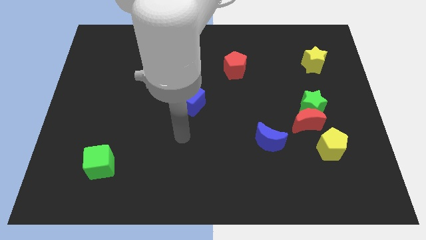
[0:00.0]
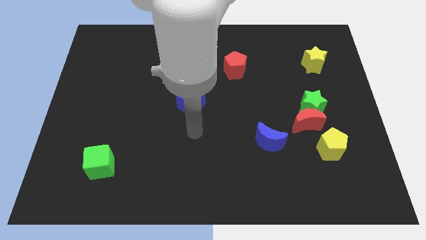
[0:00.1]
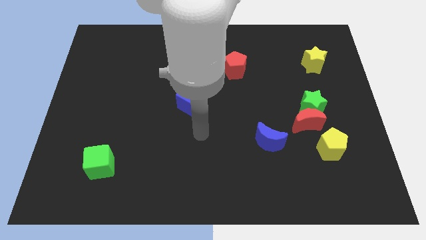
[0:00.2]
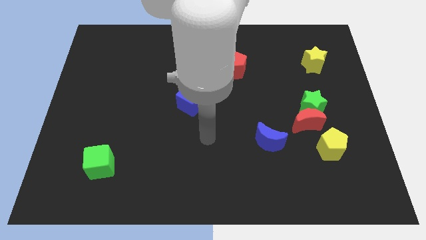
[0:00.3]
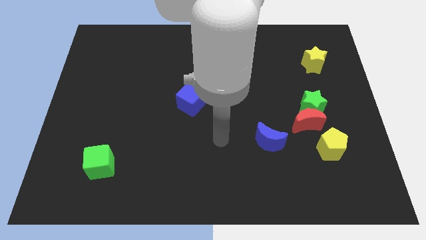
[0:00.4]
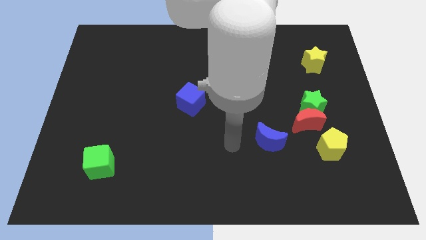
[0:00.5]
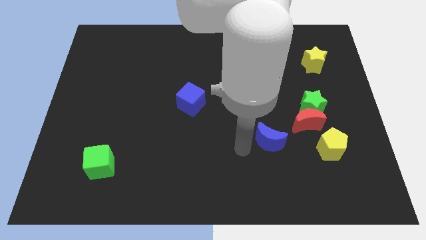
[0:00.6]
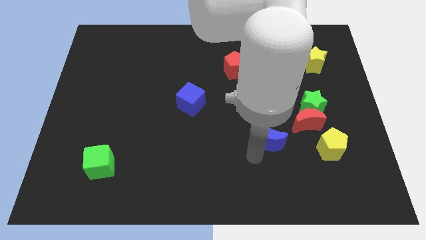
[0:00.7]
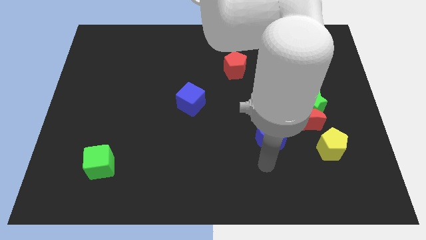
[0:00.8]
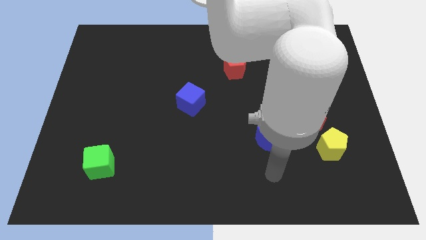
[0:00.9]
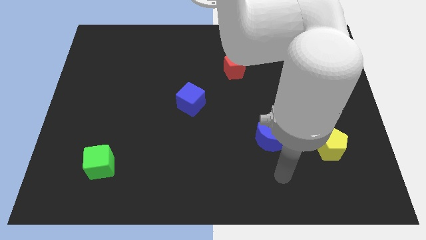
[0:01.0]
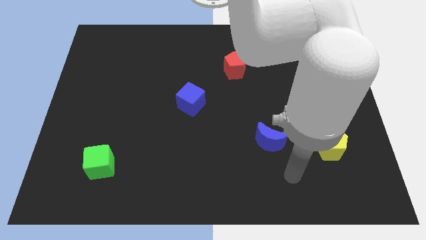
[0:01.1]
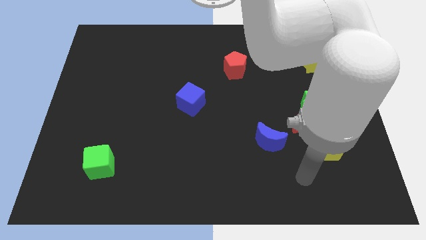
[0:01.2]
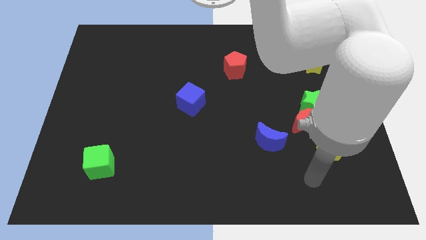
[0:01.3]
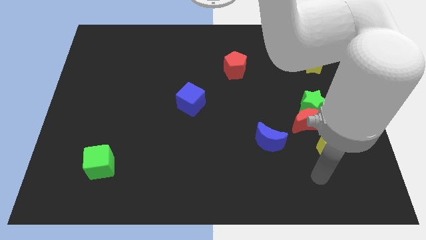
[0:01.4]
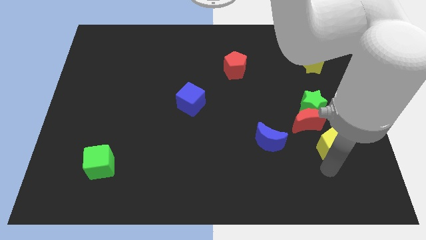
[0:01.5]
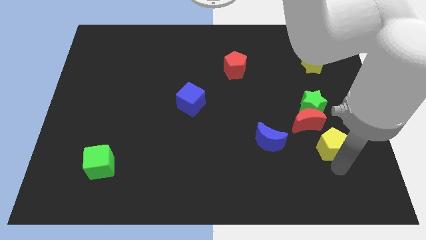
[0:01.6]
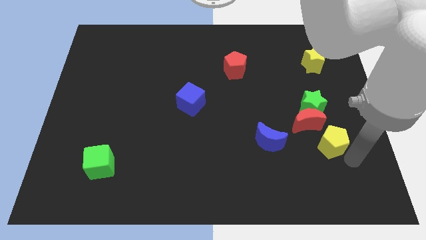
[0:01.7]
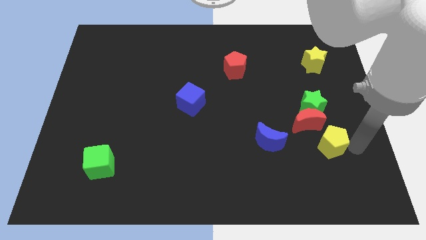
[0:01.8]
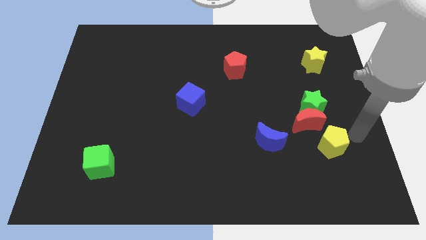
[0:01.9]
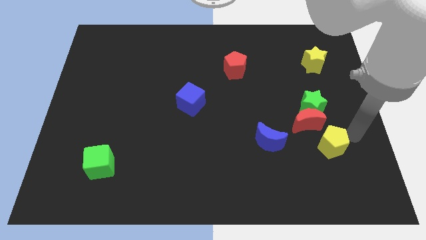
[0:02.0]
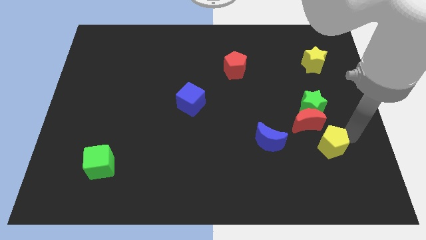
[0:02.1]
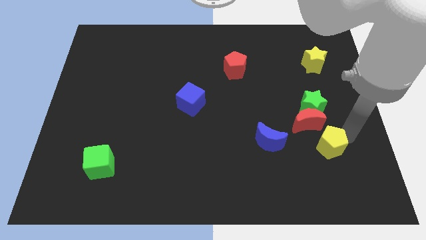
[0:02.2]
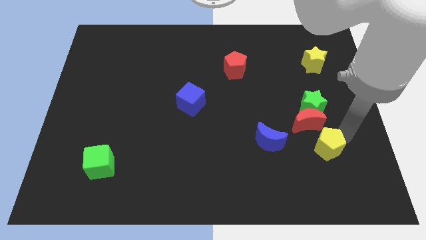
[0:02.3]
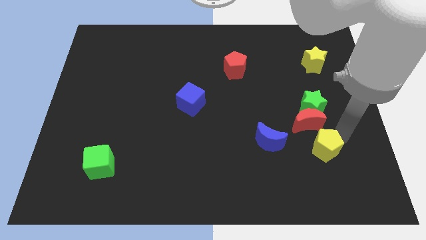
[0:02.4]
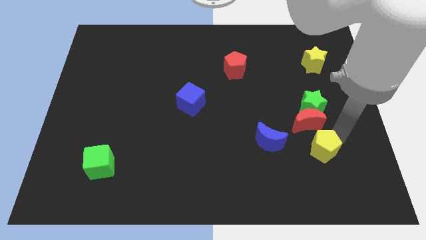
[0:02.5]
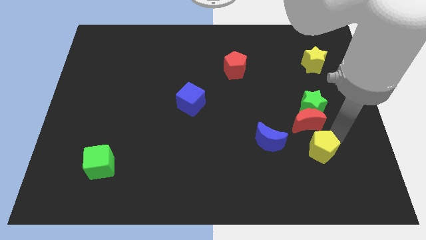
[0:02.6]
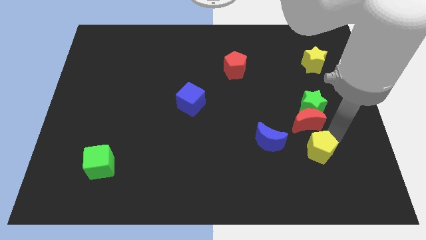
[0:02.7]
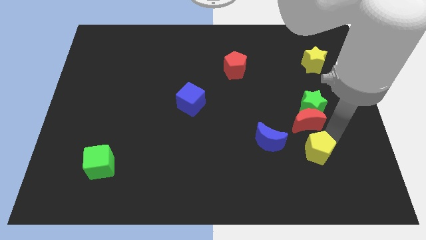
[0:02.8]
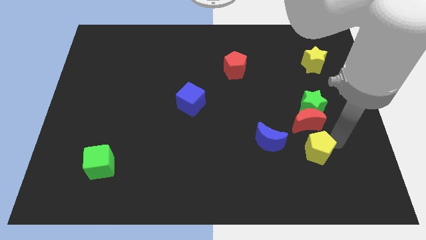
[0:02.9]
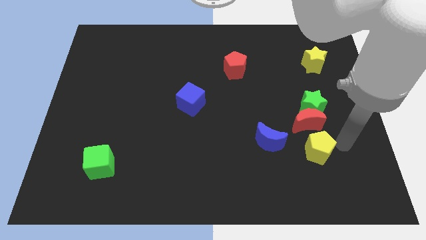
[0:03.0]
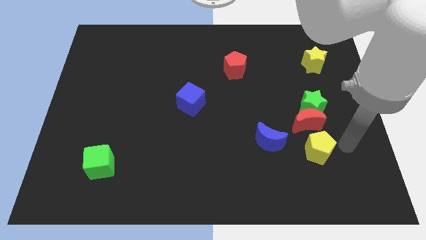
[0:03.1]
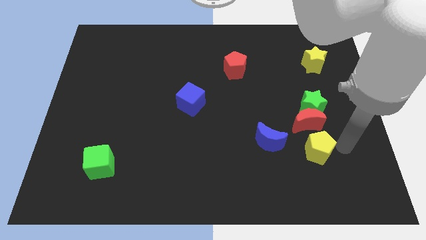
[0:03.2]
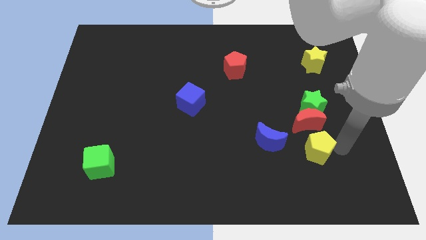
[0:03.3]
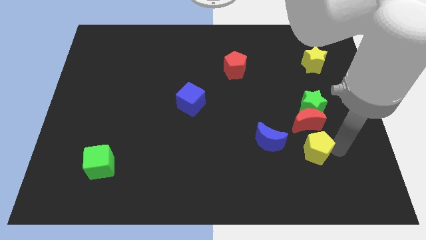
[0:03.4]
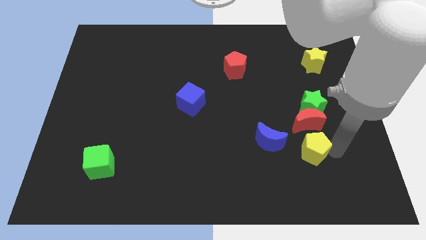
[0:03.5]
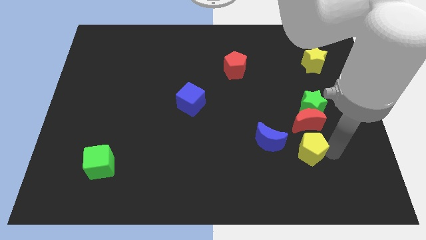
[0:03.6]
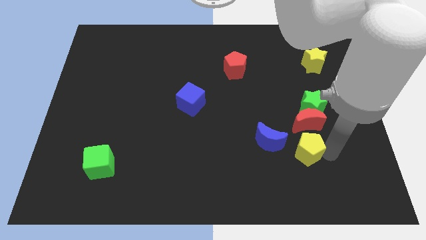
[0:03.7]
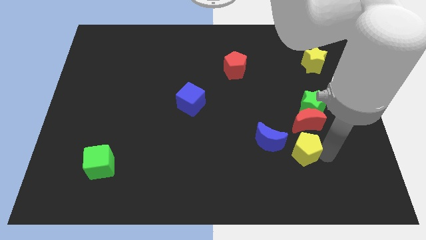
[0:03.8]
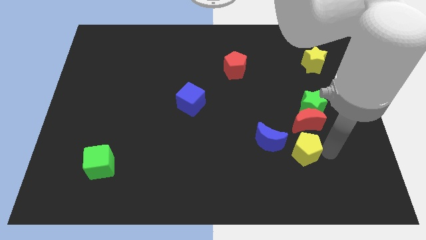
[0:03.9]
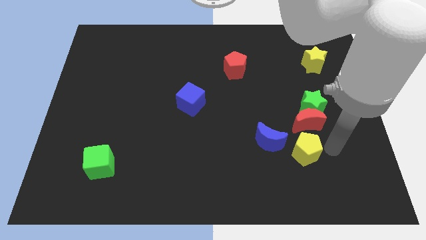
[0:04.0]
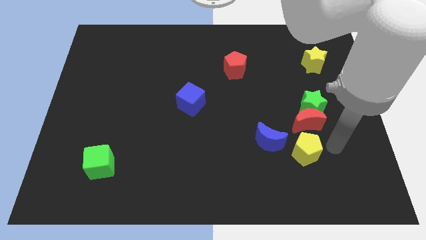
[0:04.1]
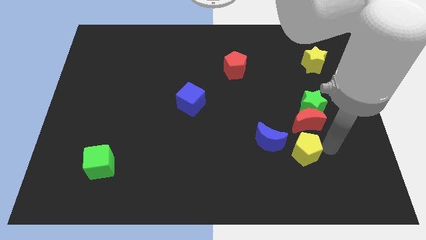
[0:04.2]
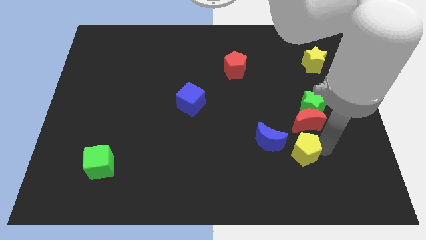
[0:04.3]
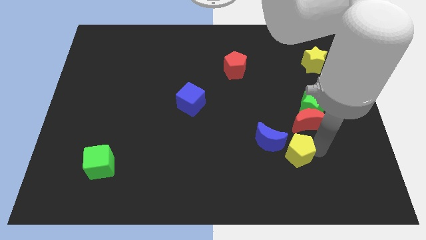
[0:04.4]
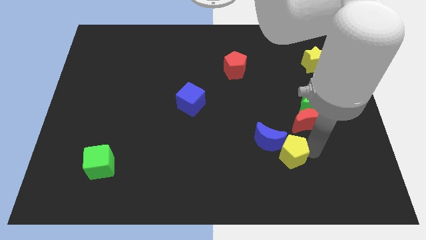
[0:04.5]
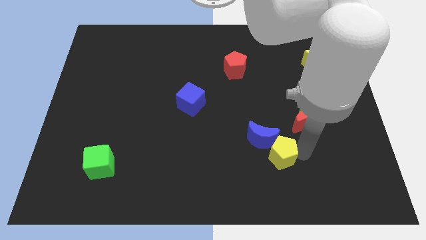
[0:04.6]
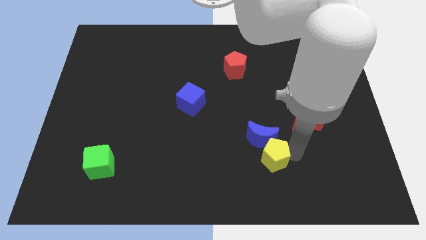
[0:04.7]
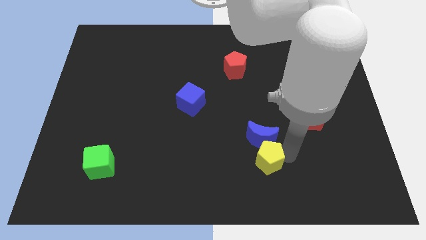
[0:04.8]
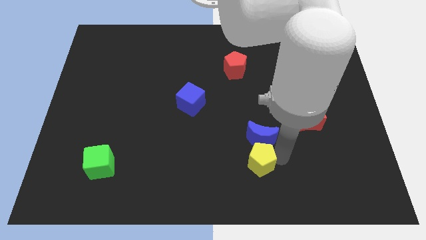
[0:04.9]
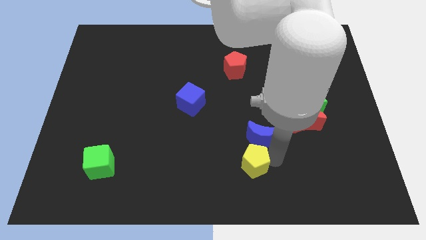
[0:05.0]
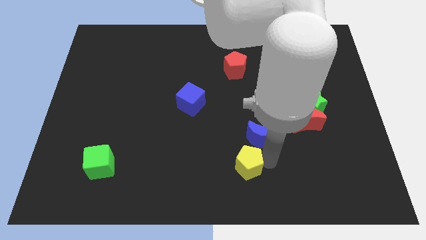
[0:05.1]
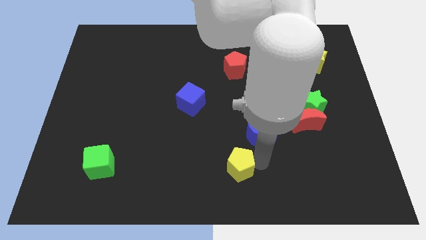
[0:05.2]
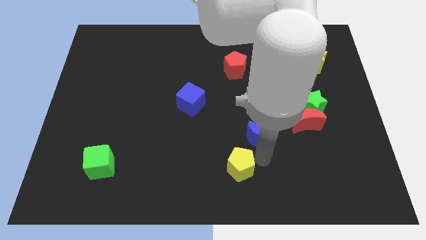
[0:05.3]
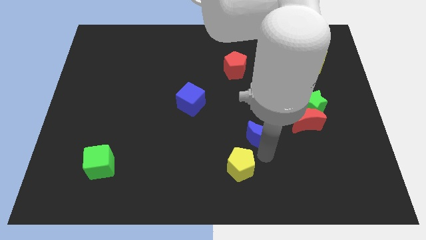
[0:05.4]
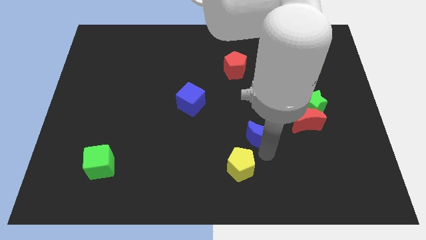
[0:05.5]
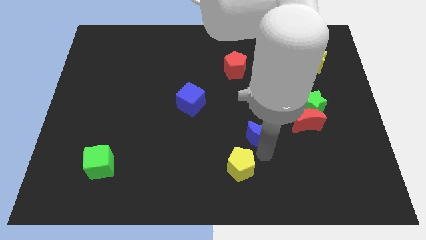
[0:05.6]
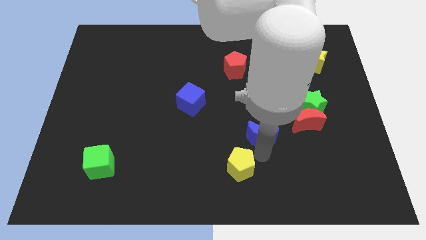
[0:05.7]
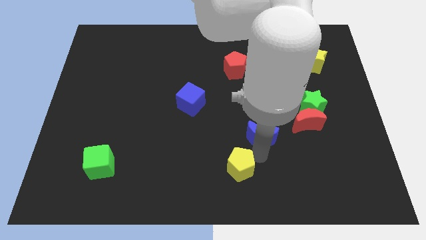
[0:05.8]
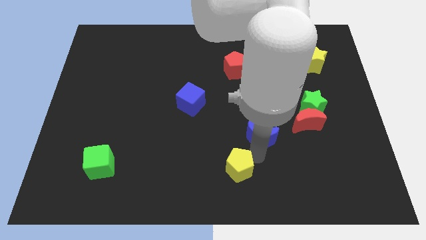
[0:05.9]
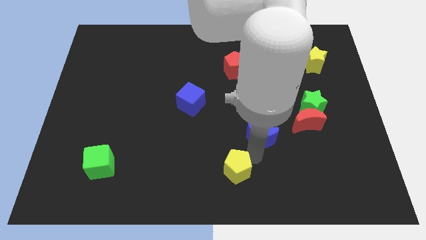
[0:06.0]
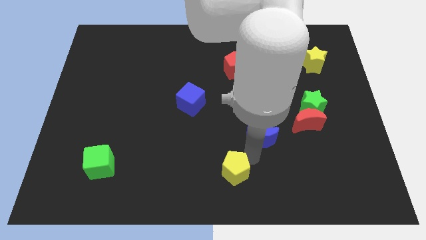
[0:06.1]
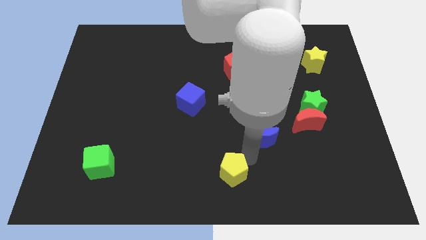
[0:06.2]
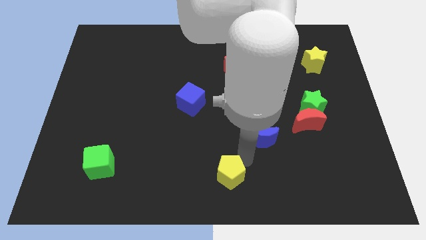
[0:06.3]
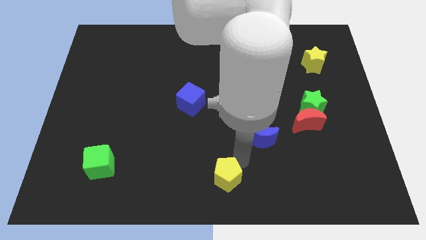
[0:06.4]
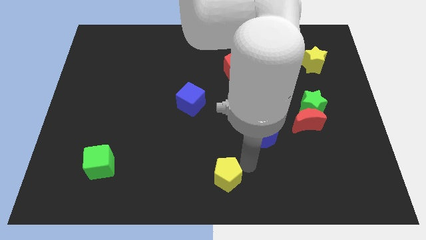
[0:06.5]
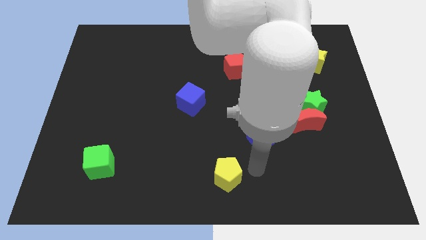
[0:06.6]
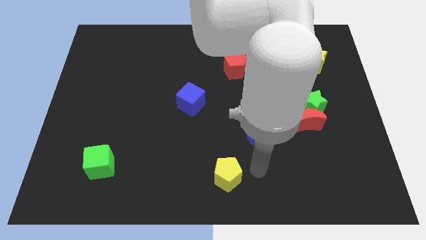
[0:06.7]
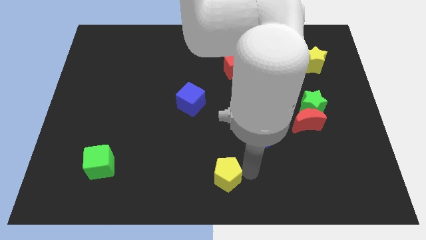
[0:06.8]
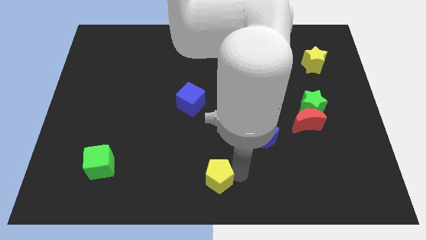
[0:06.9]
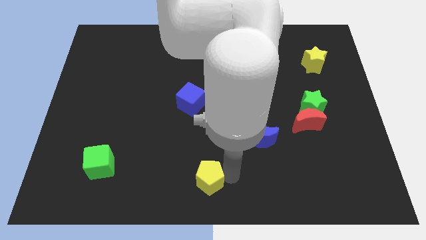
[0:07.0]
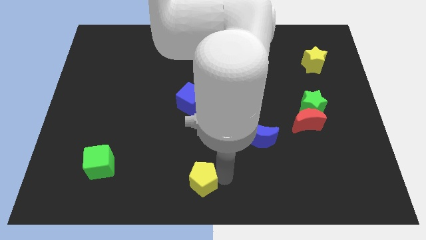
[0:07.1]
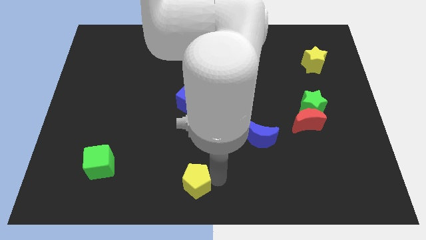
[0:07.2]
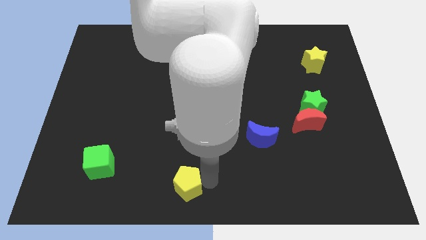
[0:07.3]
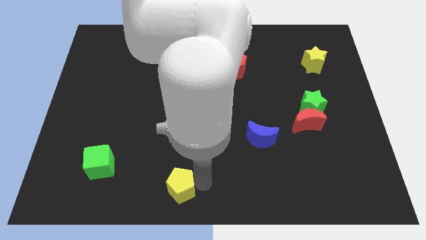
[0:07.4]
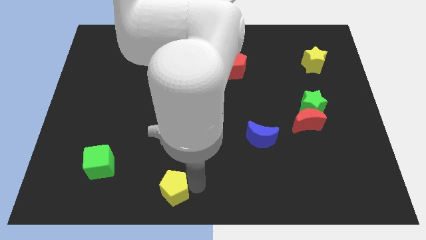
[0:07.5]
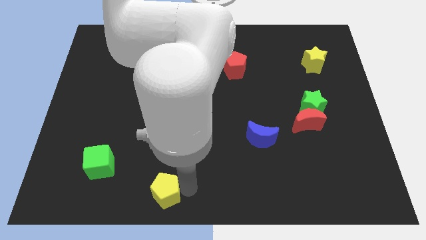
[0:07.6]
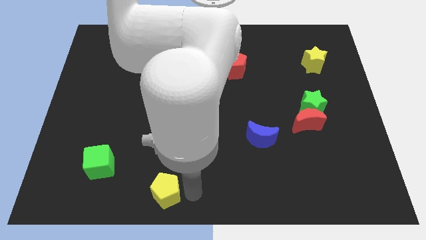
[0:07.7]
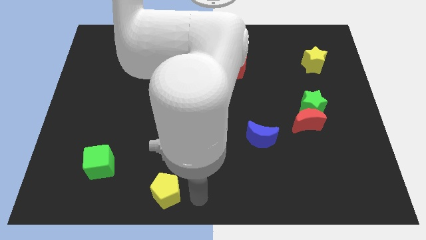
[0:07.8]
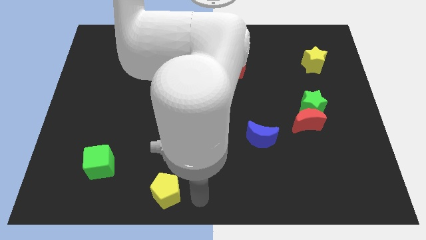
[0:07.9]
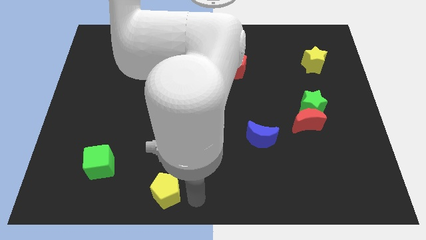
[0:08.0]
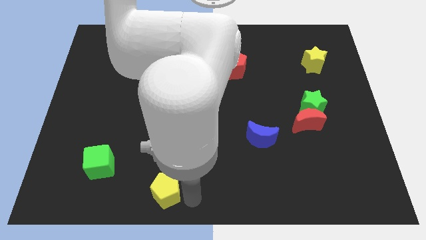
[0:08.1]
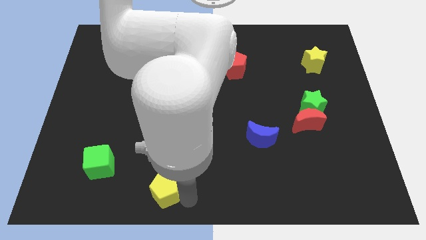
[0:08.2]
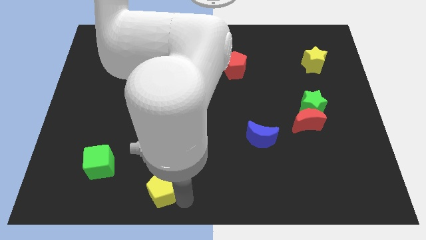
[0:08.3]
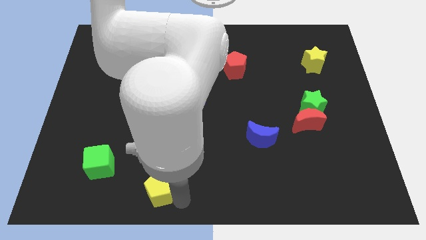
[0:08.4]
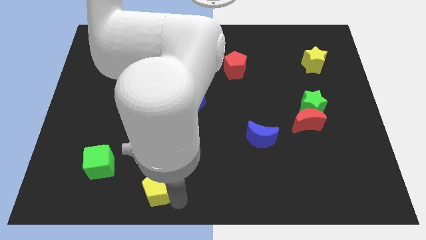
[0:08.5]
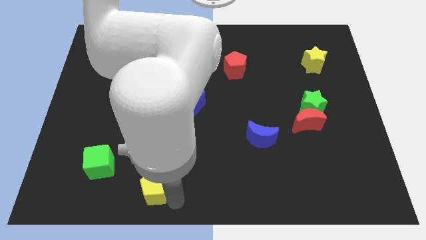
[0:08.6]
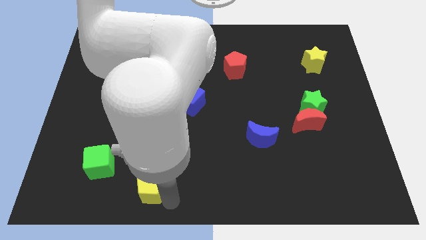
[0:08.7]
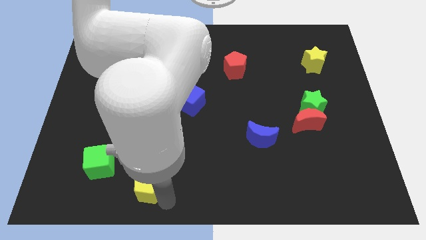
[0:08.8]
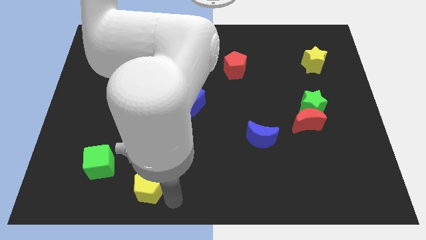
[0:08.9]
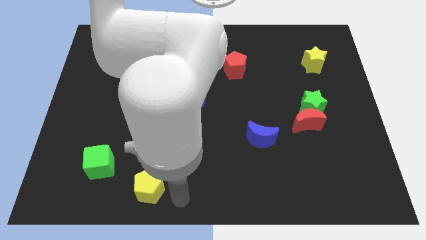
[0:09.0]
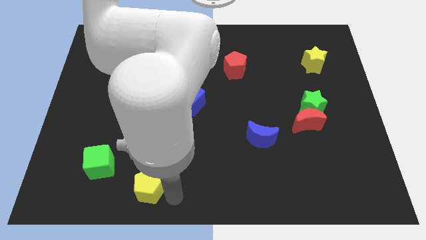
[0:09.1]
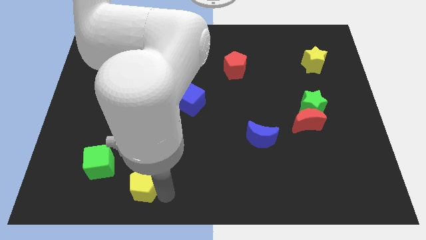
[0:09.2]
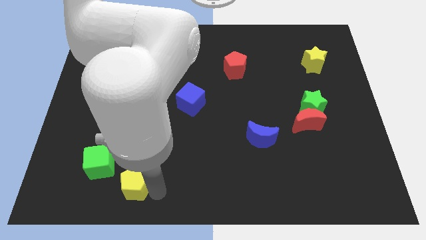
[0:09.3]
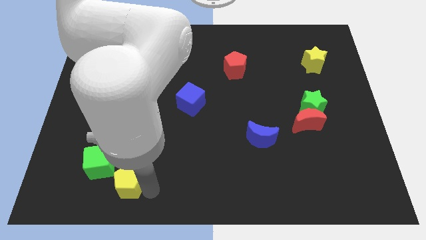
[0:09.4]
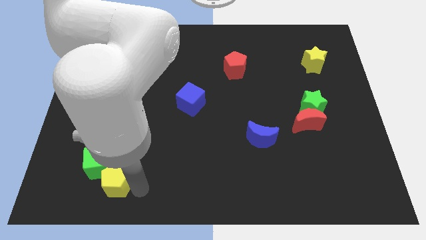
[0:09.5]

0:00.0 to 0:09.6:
put the yellow pentagon towards the green cube
